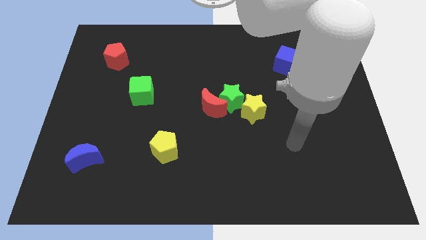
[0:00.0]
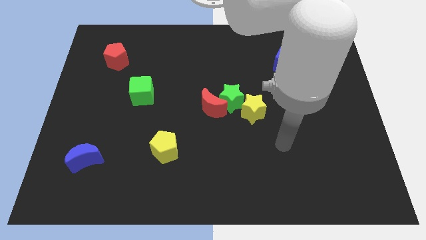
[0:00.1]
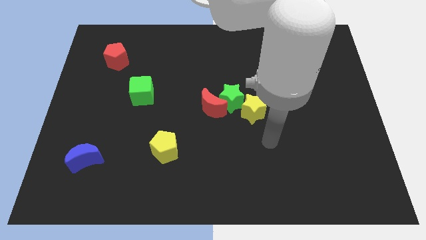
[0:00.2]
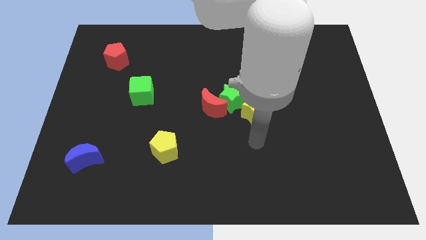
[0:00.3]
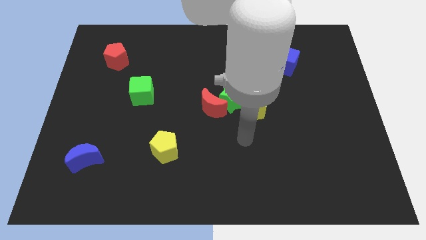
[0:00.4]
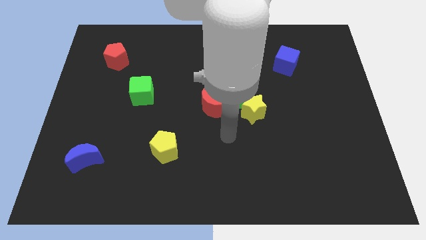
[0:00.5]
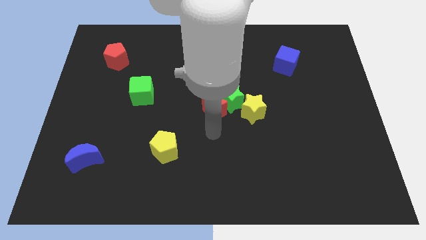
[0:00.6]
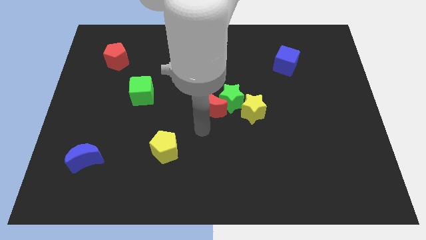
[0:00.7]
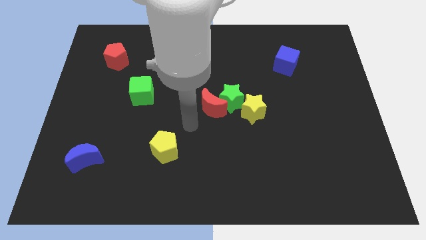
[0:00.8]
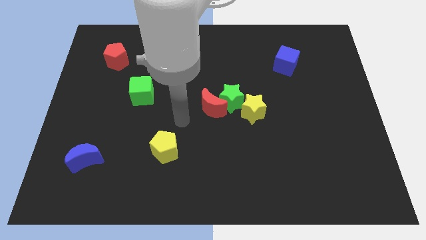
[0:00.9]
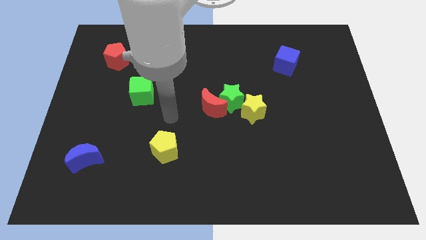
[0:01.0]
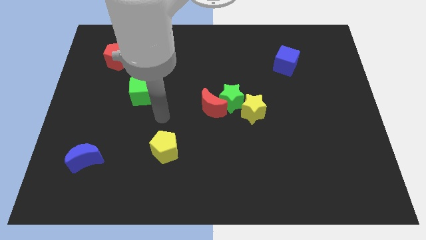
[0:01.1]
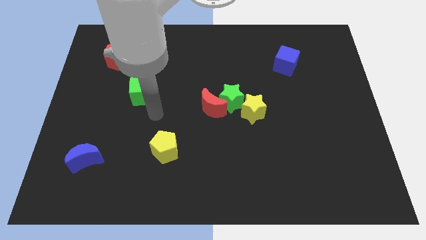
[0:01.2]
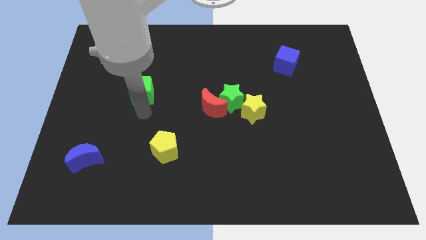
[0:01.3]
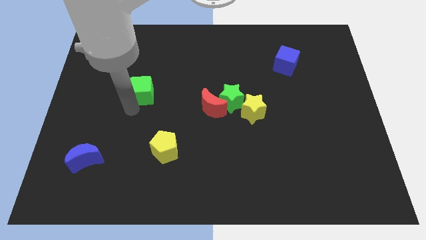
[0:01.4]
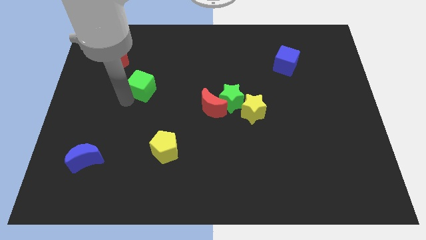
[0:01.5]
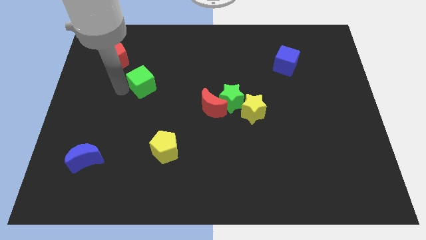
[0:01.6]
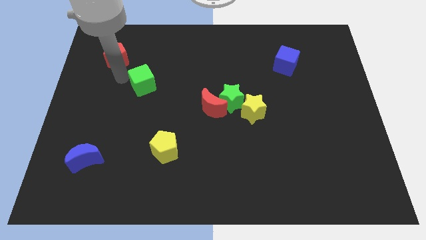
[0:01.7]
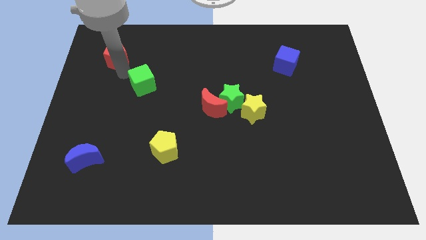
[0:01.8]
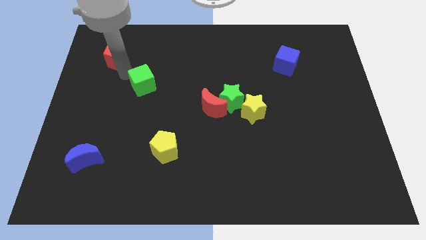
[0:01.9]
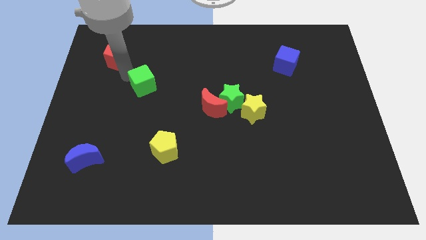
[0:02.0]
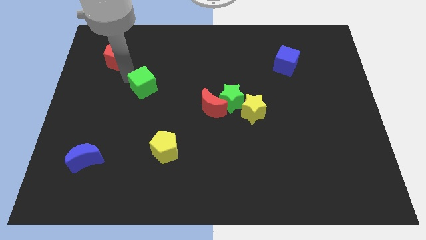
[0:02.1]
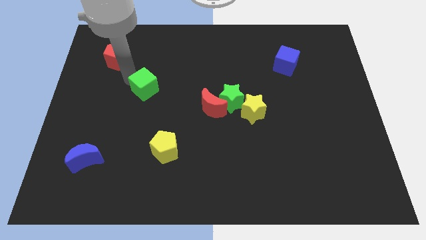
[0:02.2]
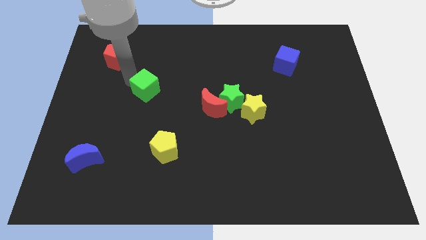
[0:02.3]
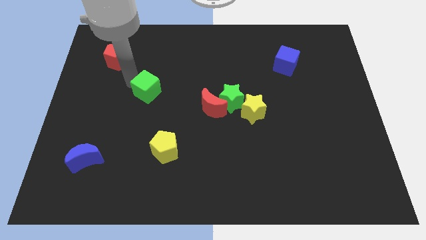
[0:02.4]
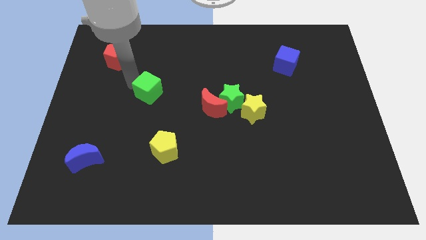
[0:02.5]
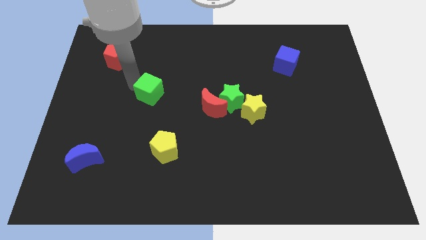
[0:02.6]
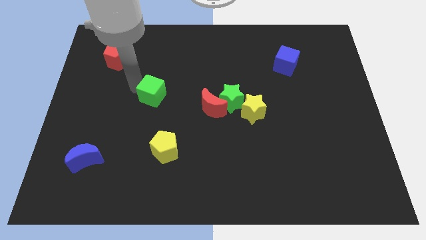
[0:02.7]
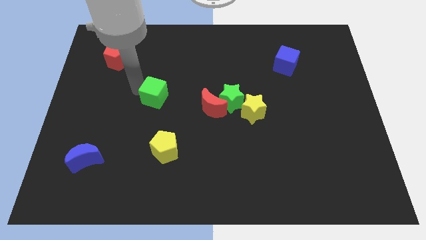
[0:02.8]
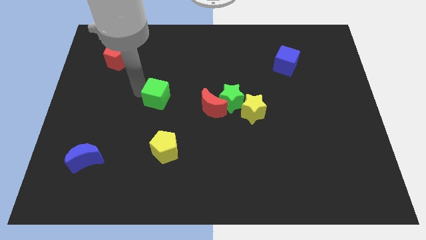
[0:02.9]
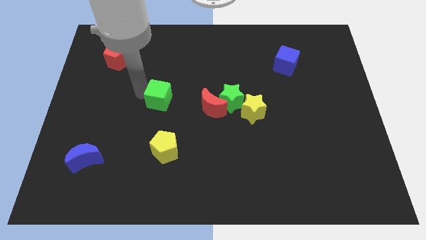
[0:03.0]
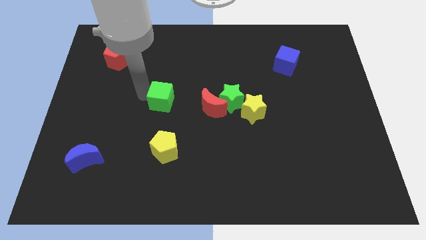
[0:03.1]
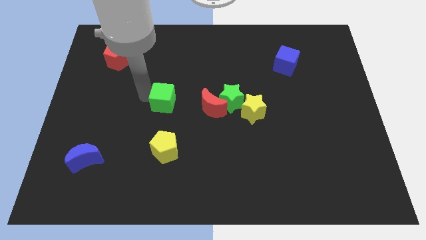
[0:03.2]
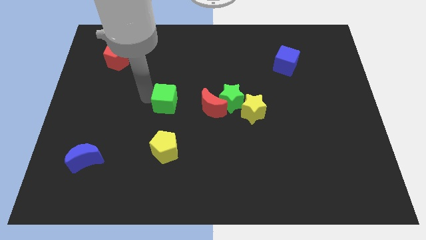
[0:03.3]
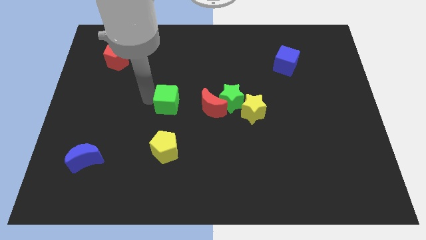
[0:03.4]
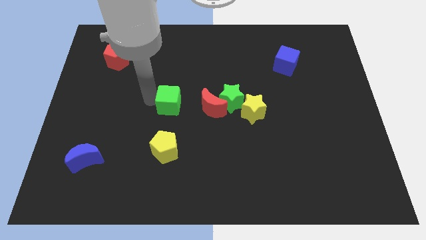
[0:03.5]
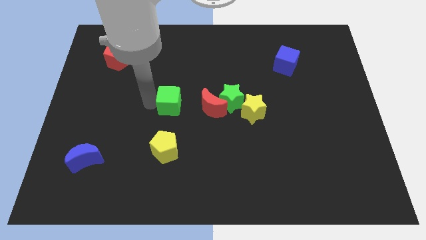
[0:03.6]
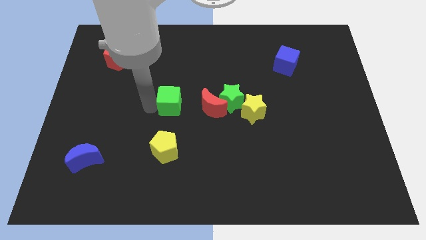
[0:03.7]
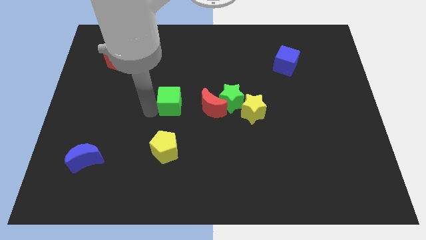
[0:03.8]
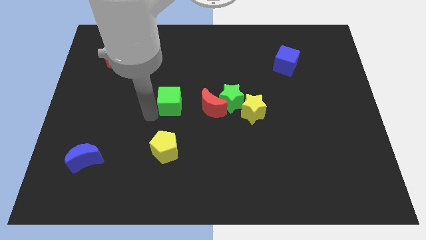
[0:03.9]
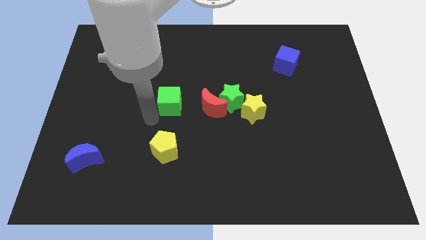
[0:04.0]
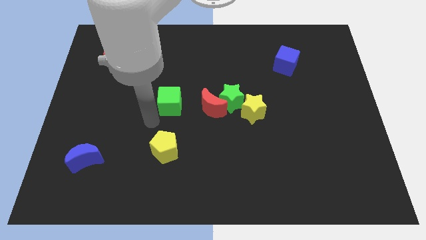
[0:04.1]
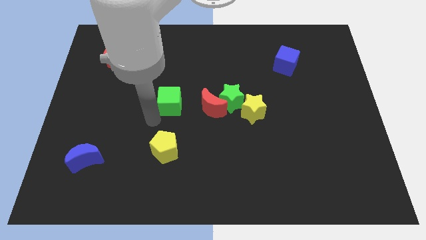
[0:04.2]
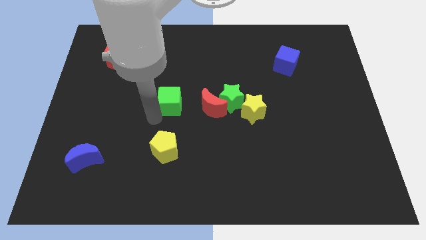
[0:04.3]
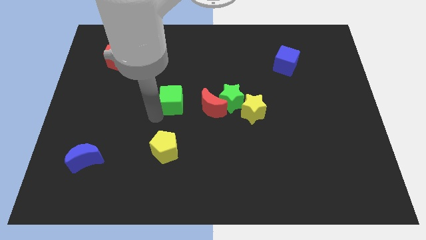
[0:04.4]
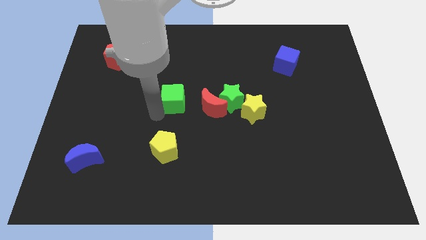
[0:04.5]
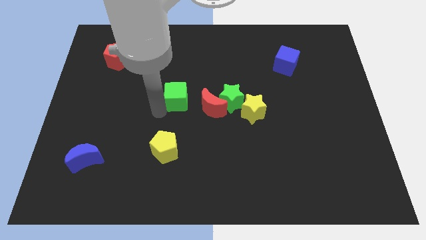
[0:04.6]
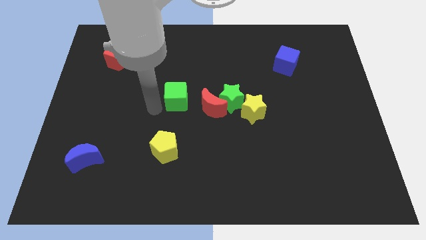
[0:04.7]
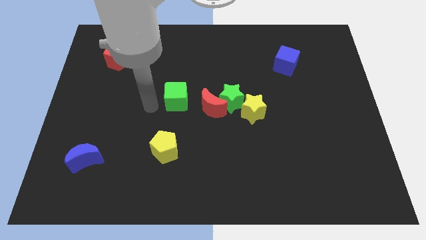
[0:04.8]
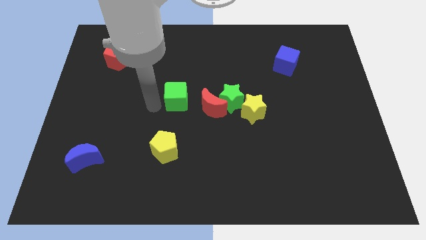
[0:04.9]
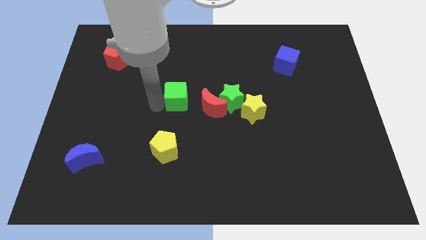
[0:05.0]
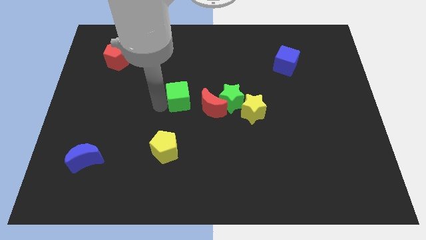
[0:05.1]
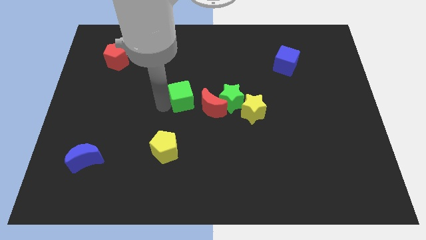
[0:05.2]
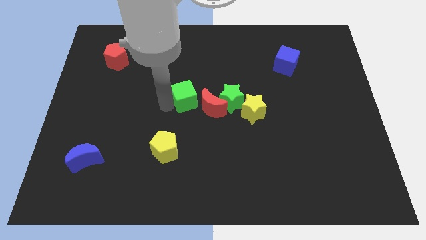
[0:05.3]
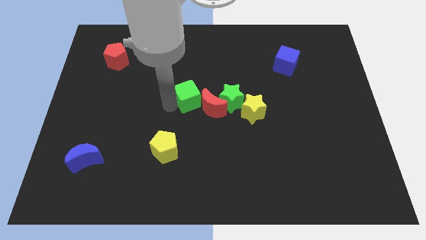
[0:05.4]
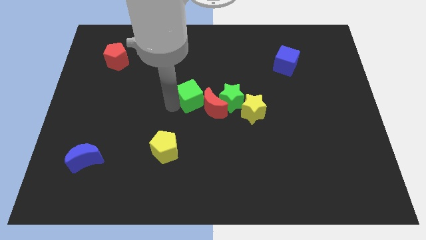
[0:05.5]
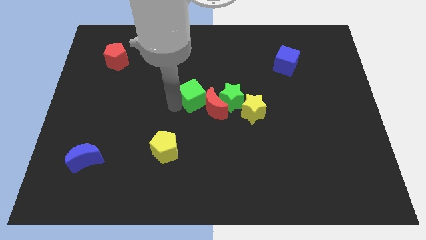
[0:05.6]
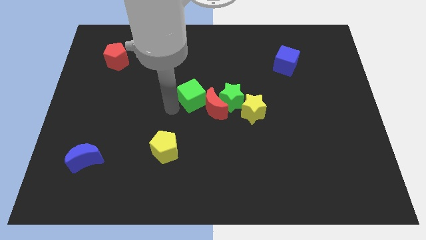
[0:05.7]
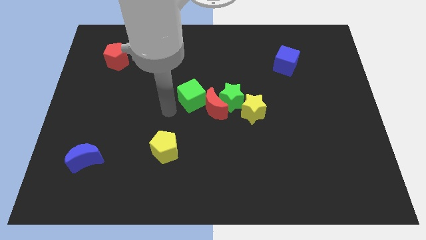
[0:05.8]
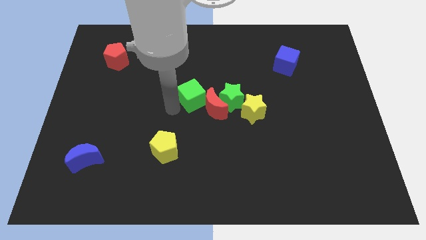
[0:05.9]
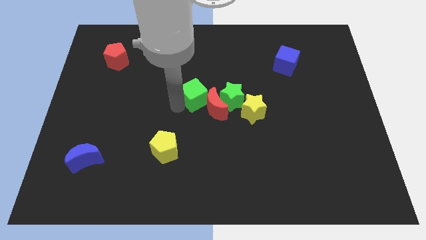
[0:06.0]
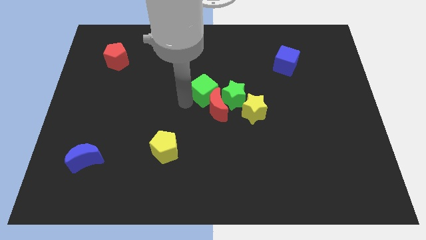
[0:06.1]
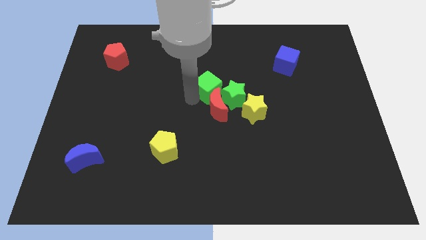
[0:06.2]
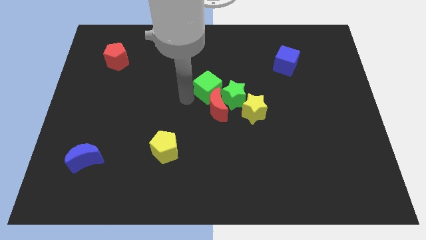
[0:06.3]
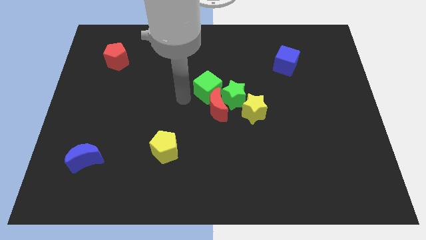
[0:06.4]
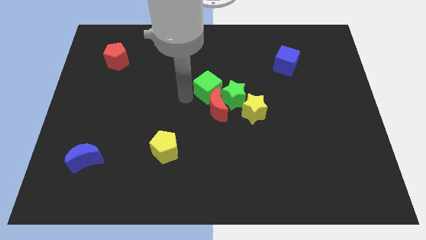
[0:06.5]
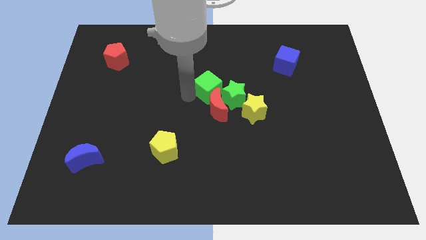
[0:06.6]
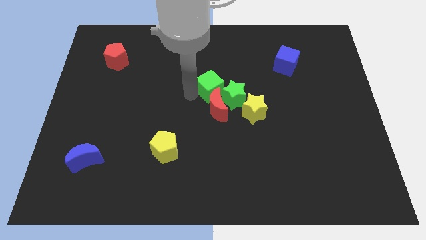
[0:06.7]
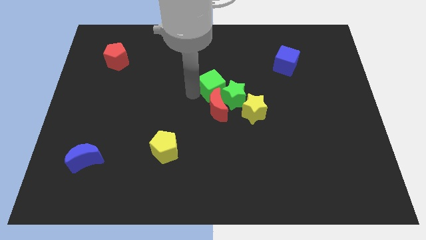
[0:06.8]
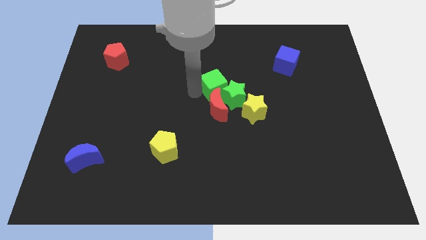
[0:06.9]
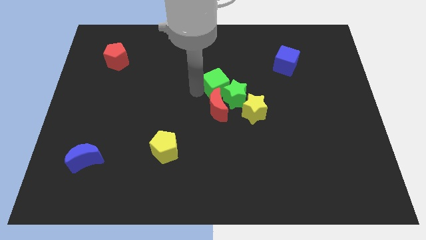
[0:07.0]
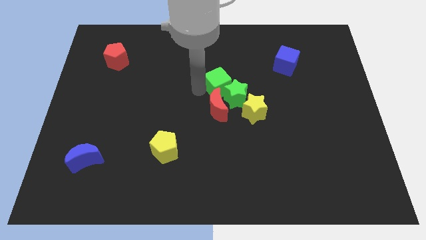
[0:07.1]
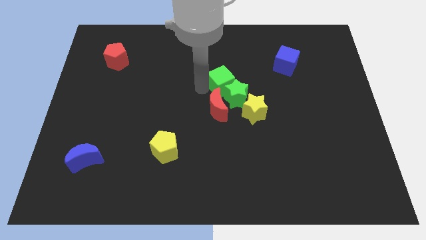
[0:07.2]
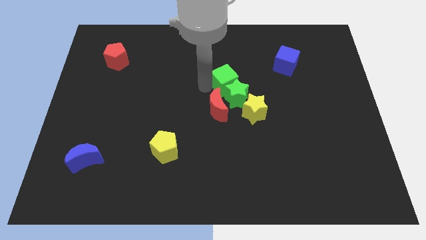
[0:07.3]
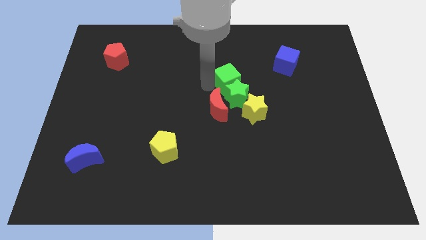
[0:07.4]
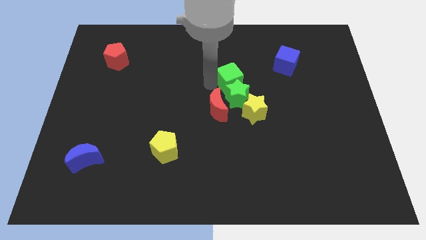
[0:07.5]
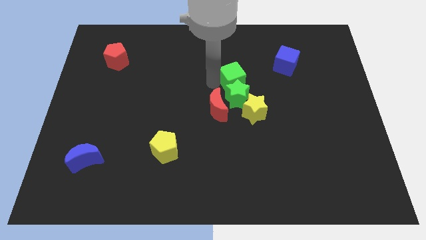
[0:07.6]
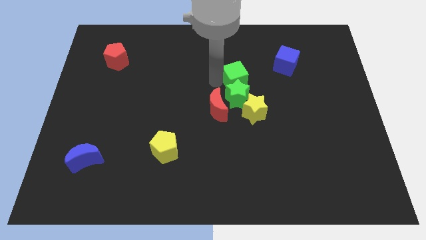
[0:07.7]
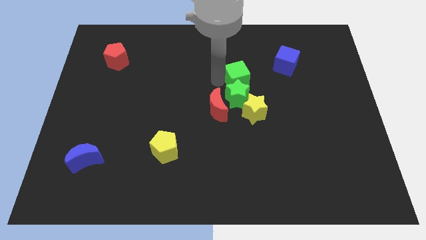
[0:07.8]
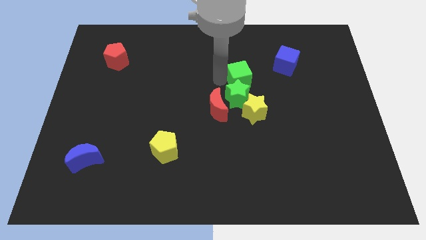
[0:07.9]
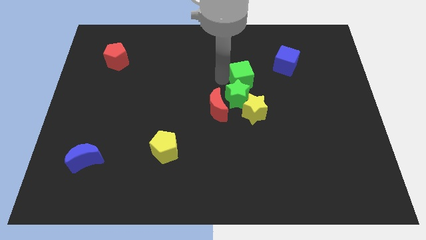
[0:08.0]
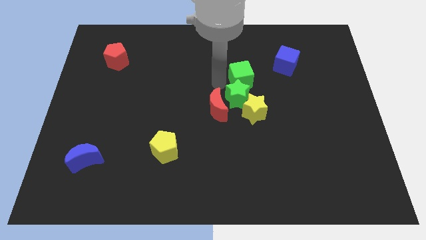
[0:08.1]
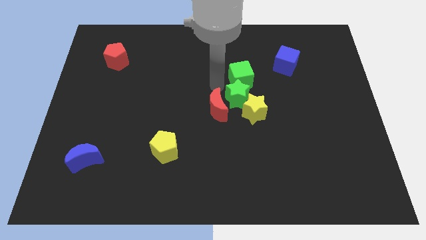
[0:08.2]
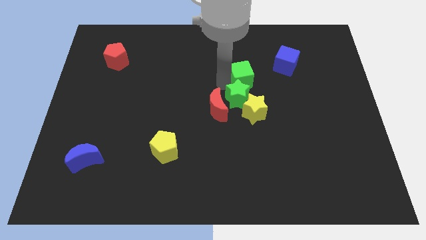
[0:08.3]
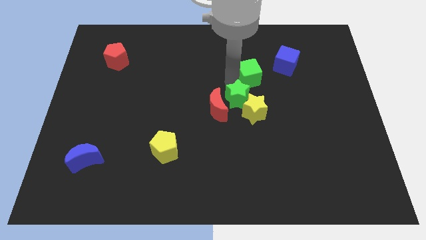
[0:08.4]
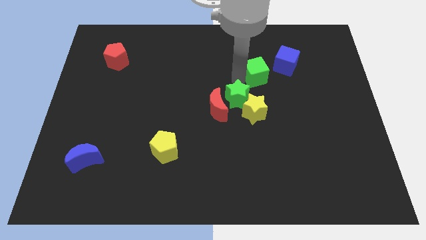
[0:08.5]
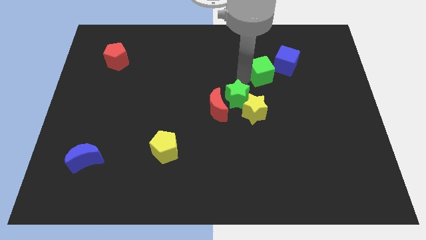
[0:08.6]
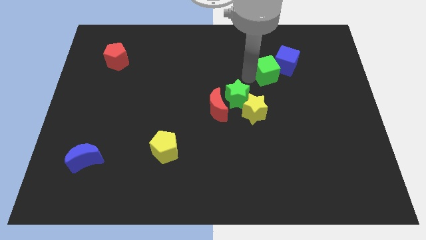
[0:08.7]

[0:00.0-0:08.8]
push the green cube to the blue cube
